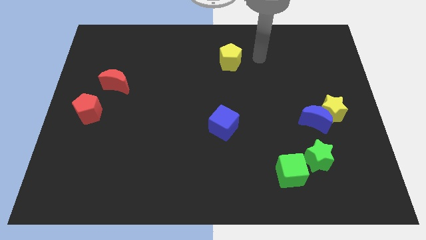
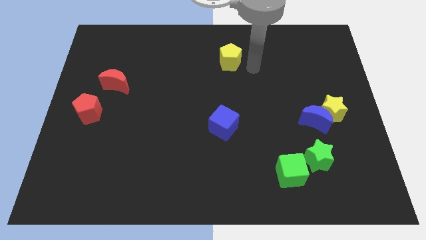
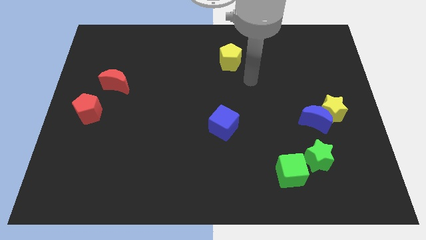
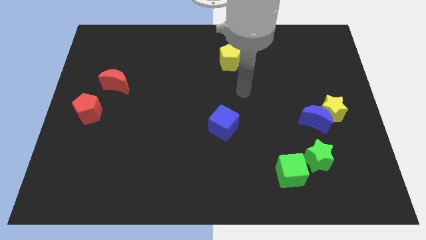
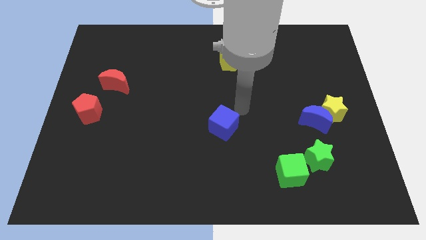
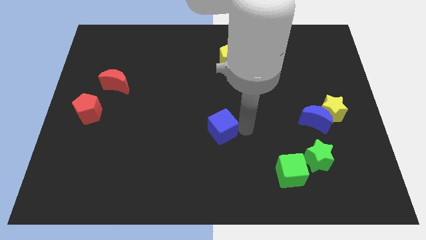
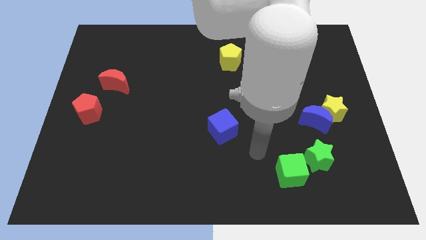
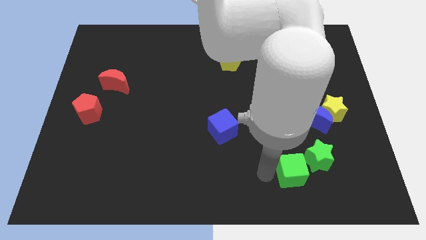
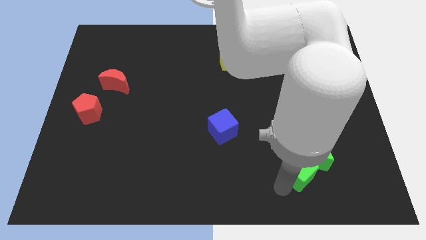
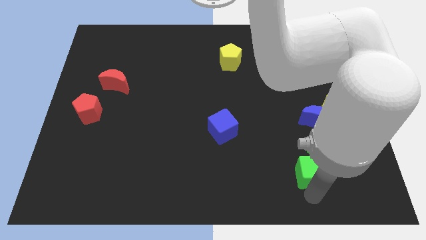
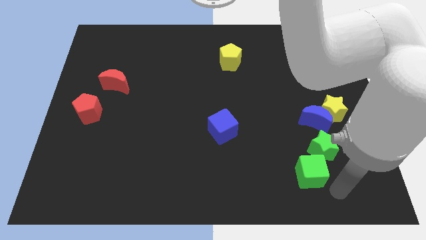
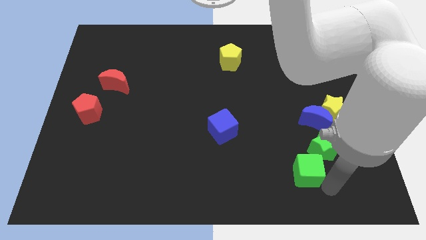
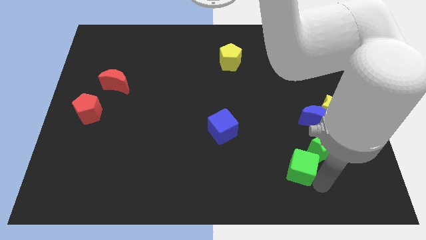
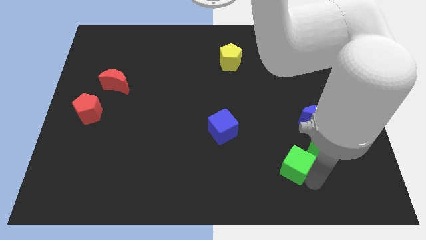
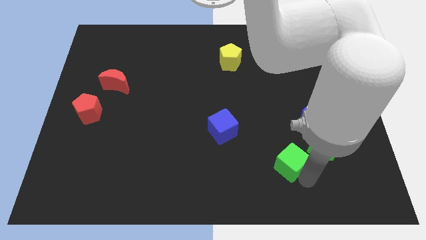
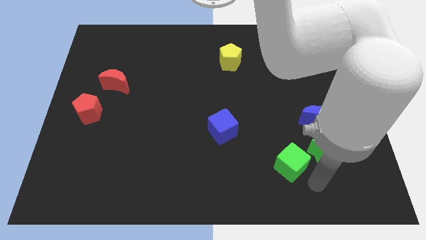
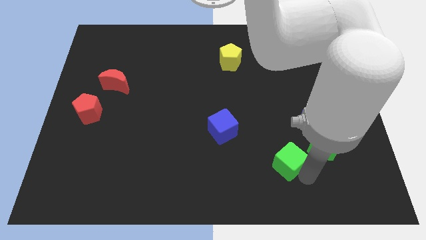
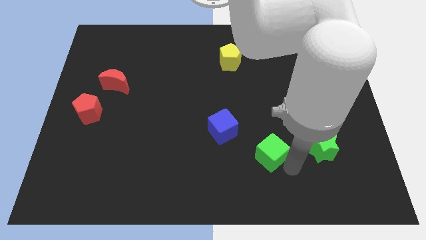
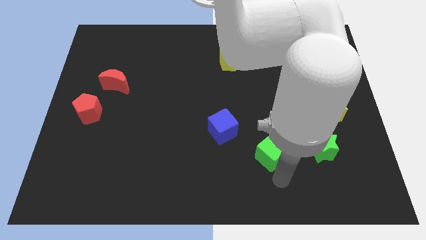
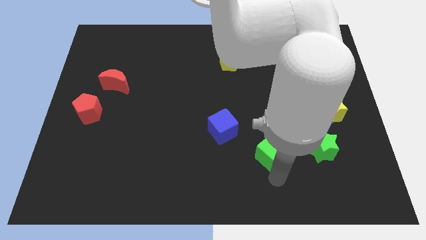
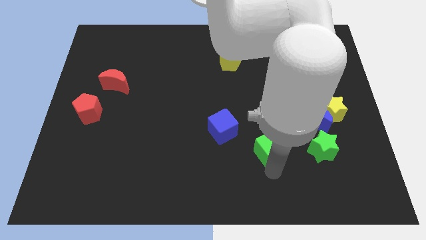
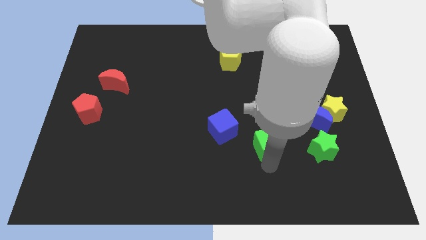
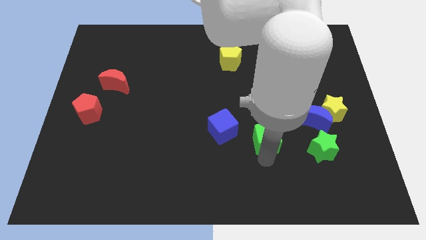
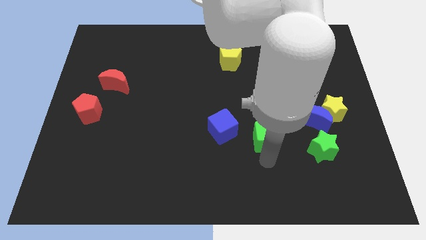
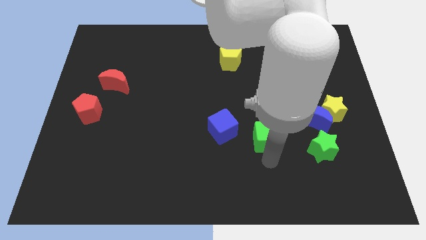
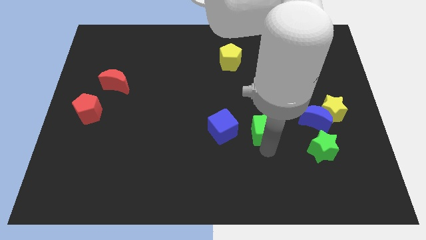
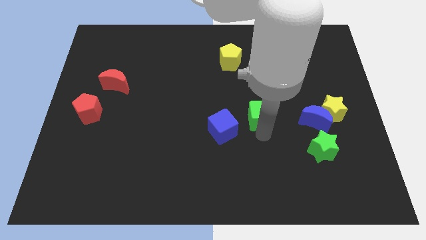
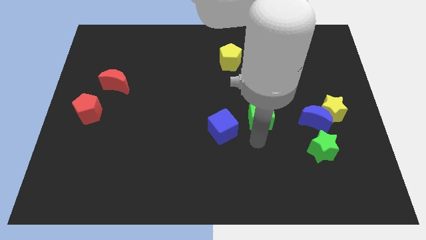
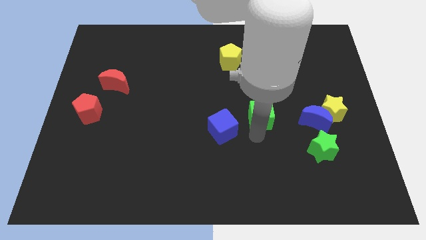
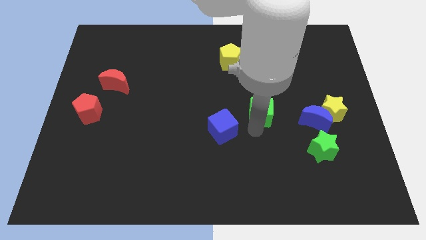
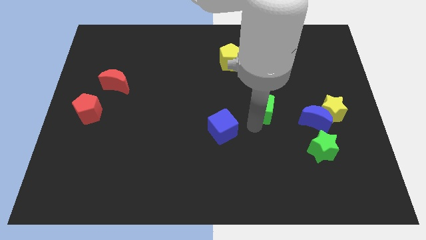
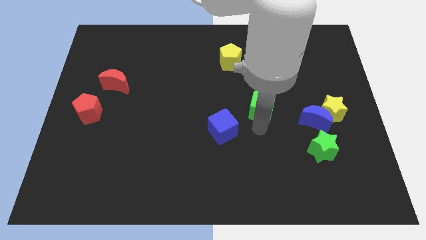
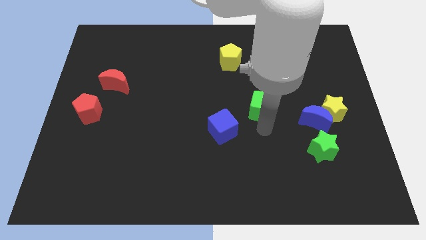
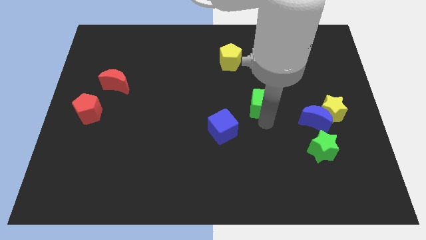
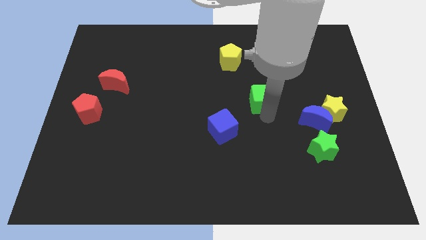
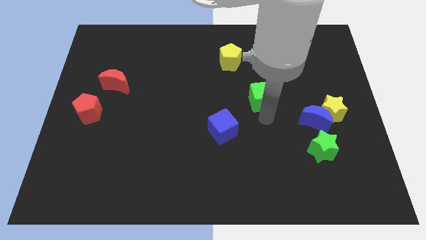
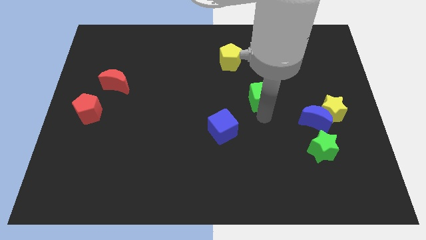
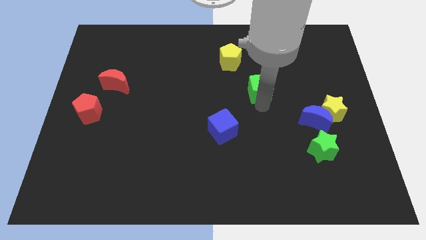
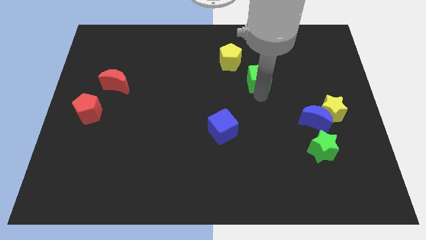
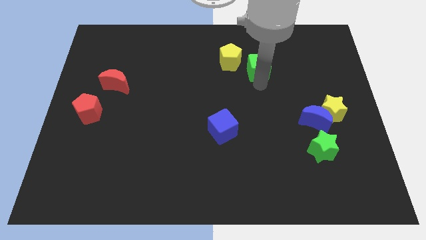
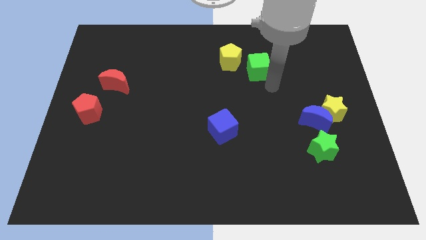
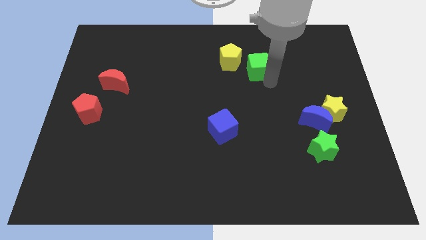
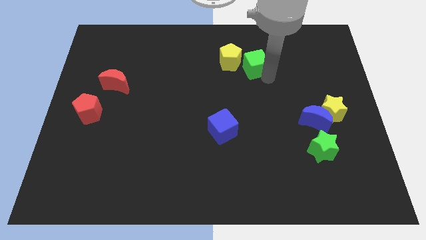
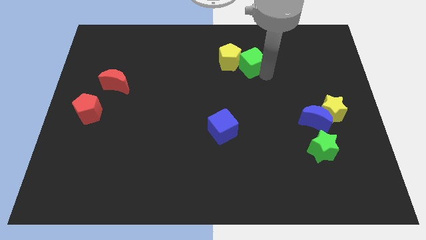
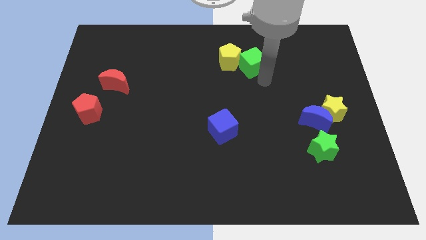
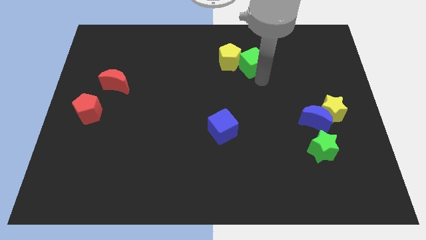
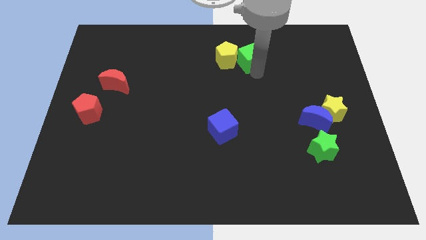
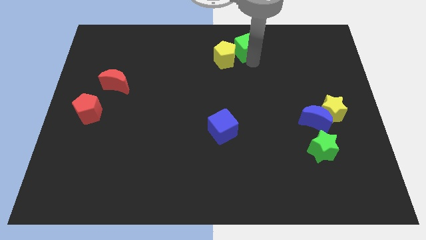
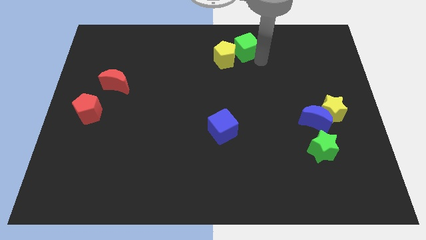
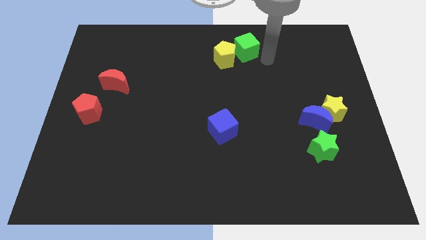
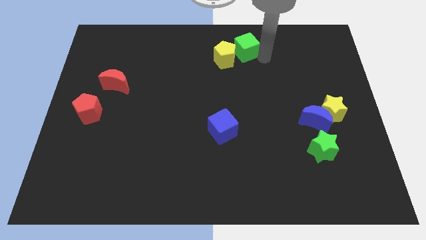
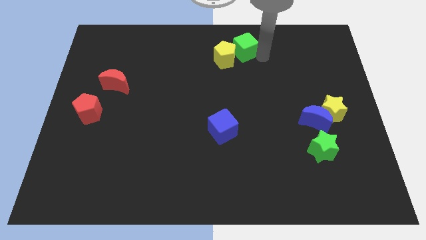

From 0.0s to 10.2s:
slide the green cube to the top side

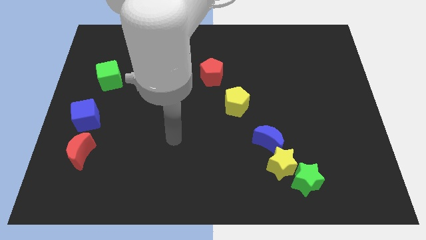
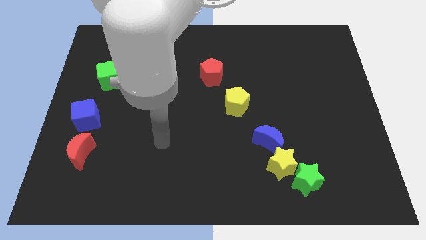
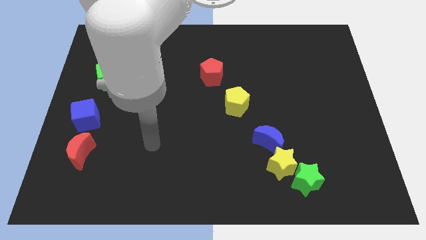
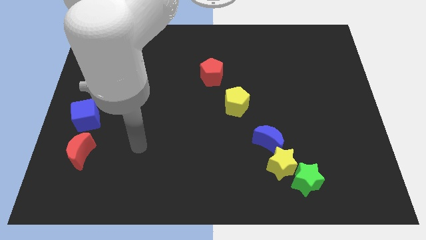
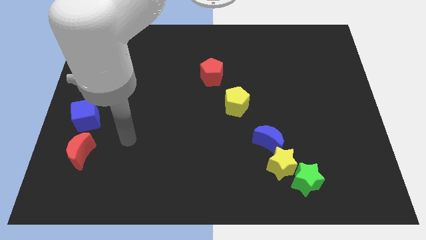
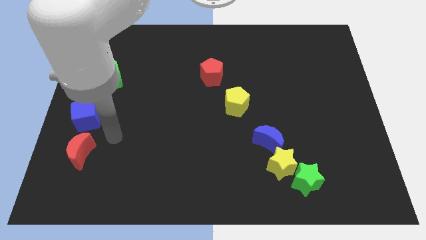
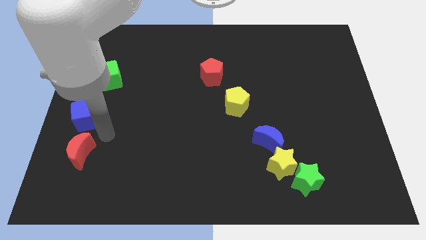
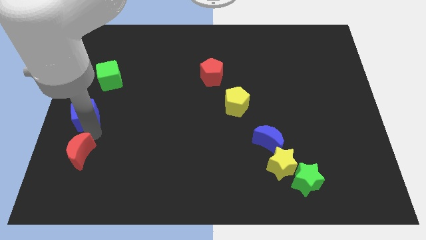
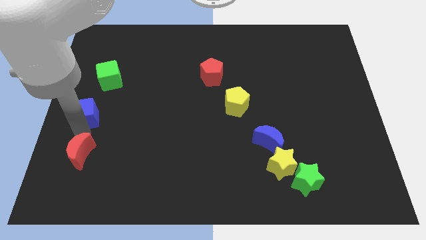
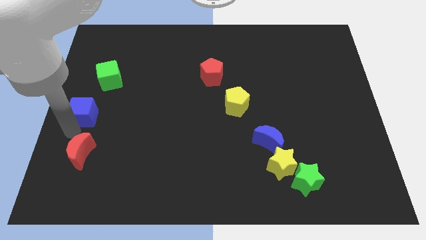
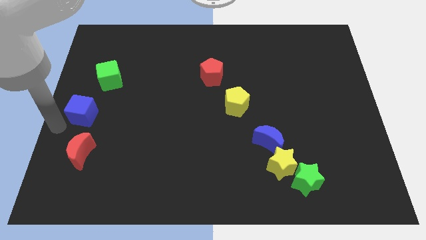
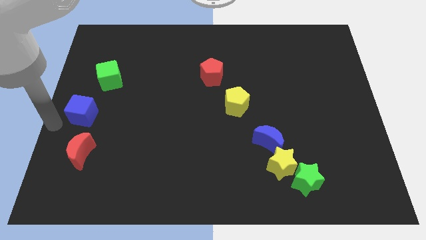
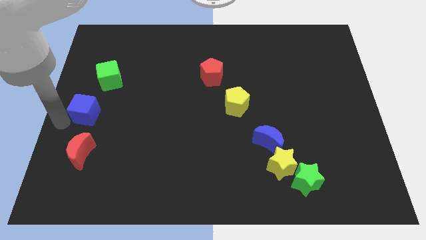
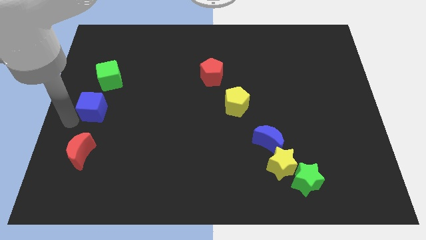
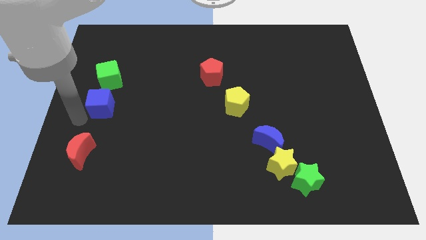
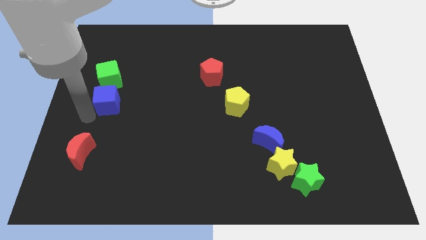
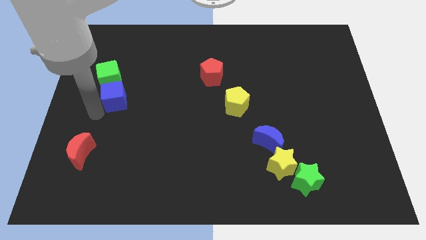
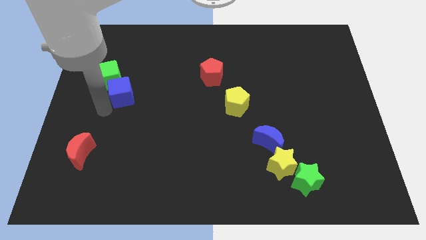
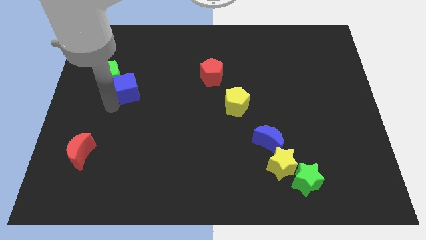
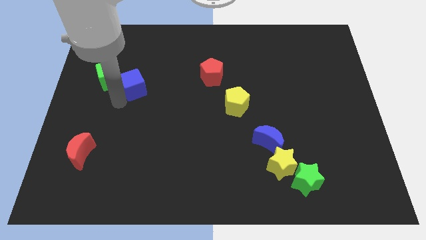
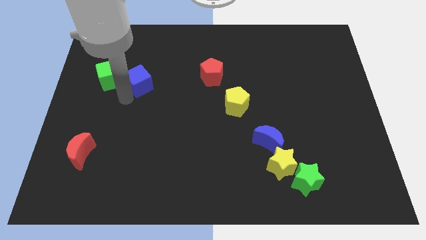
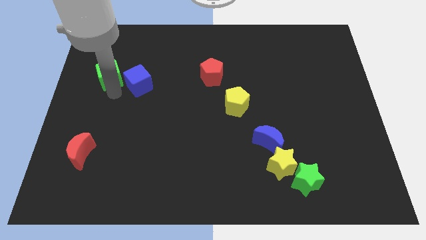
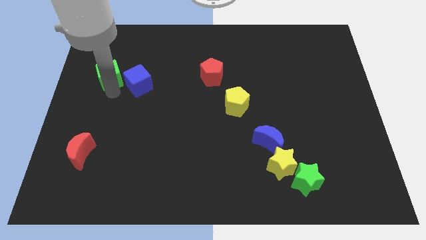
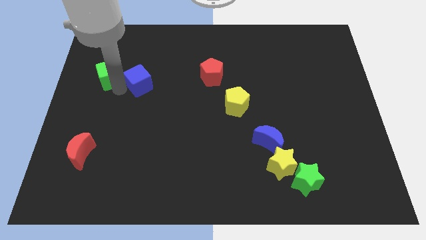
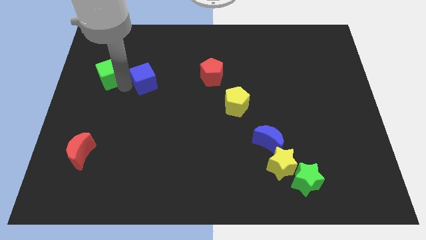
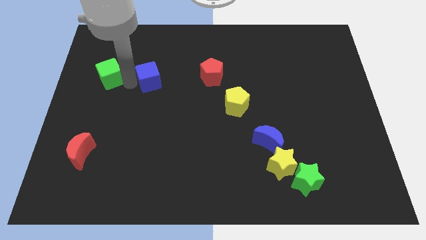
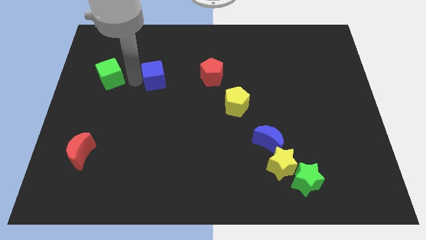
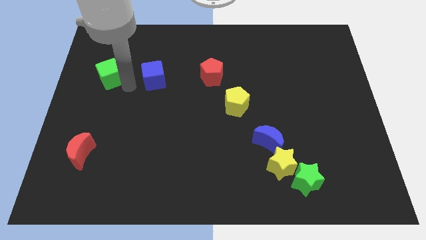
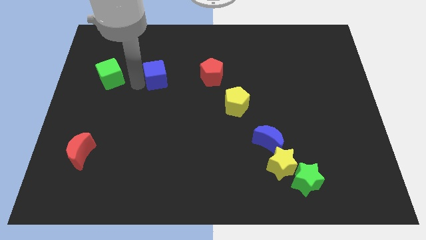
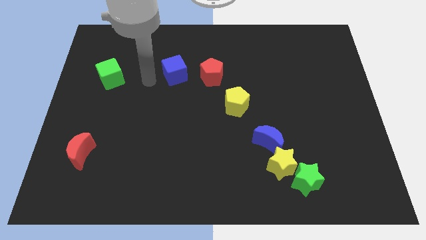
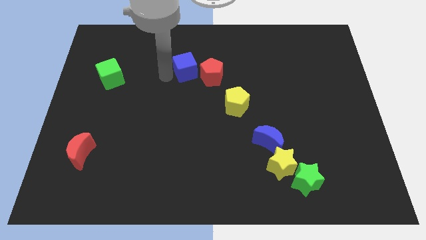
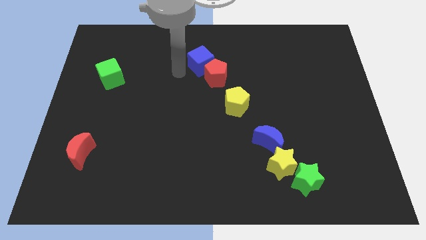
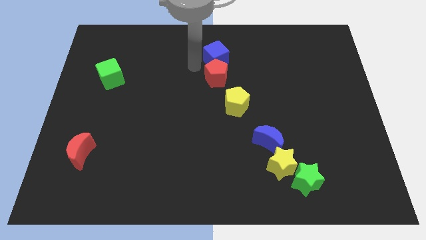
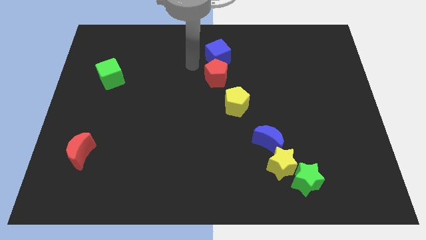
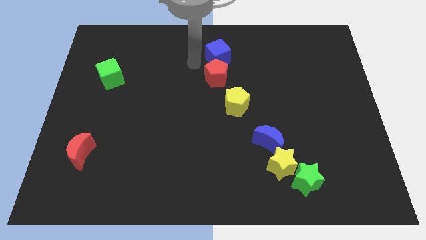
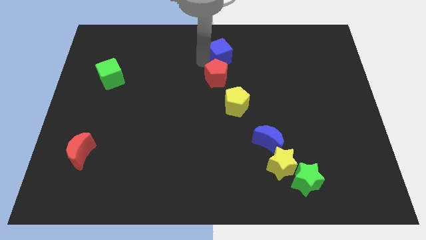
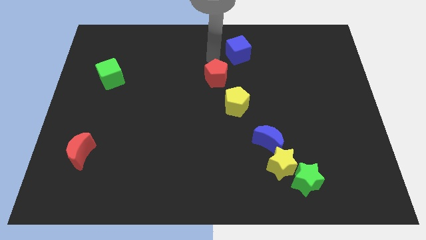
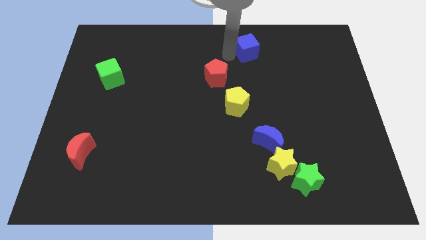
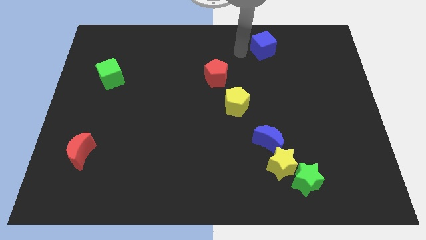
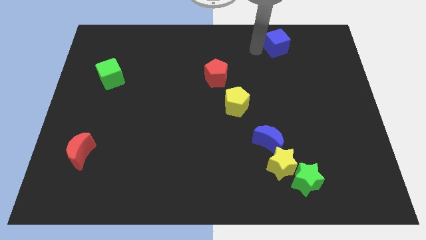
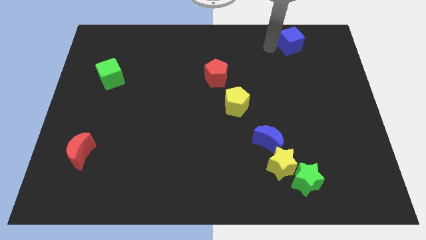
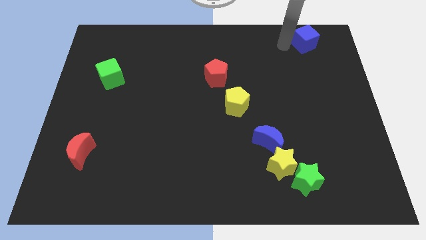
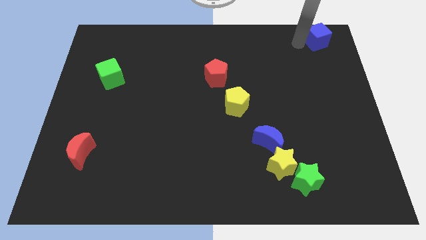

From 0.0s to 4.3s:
push the blue cube to the top right of the board
